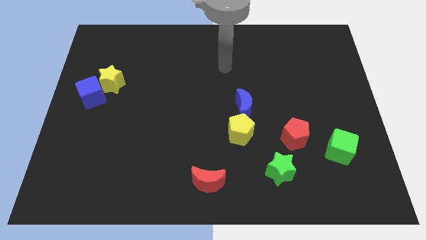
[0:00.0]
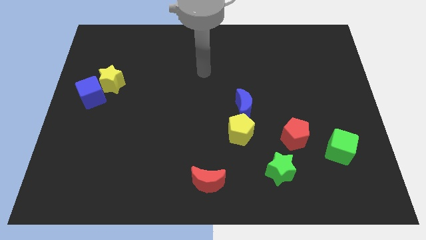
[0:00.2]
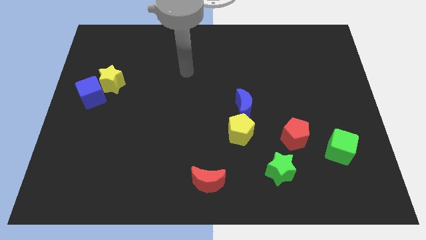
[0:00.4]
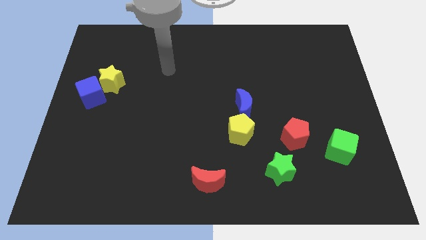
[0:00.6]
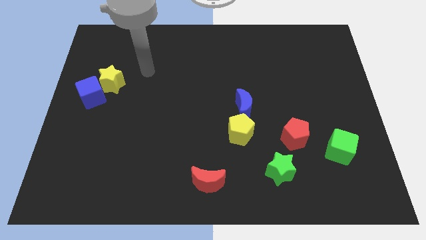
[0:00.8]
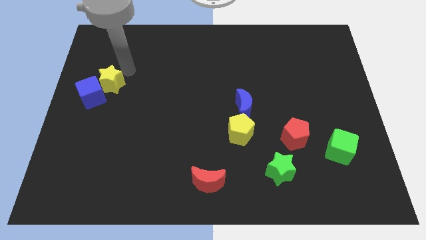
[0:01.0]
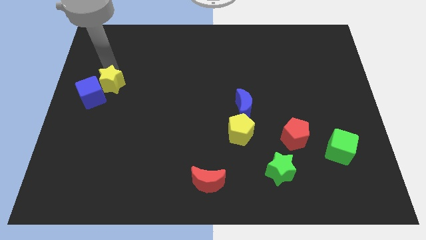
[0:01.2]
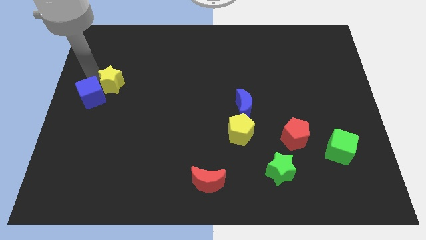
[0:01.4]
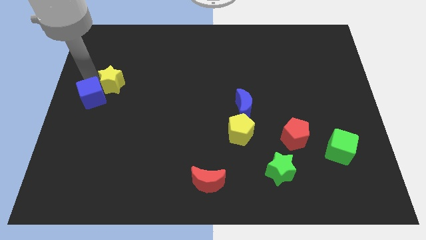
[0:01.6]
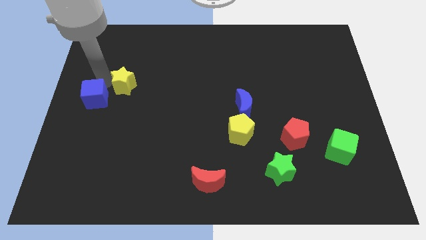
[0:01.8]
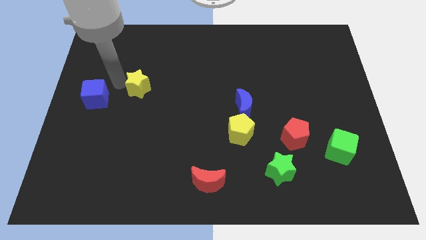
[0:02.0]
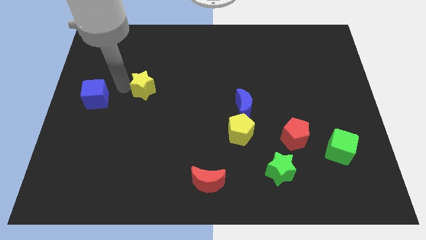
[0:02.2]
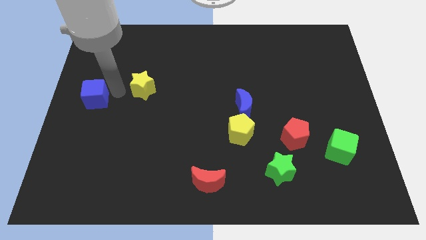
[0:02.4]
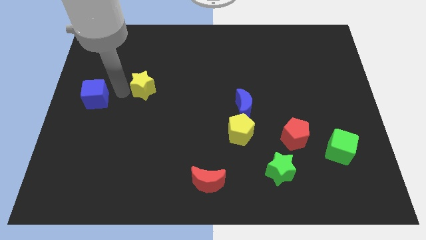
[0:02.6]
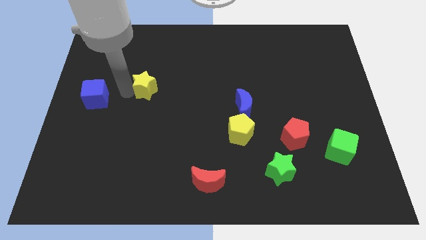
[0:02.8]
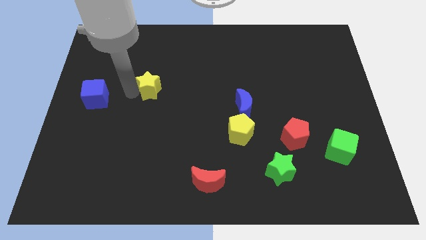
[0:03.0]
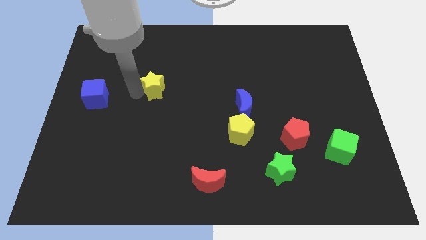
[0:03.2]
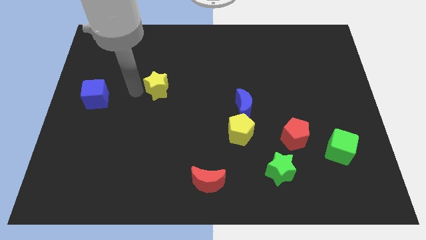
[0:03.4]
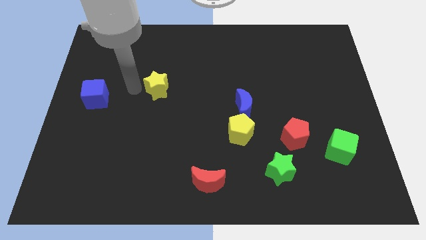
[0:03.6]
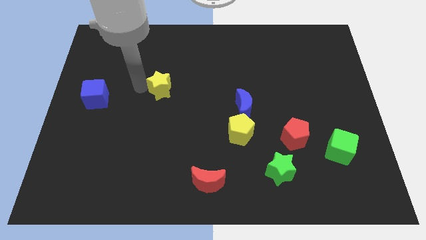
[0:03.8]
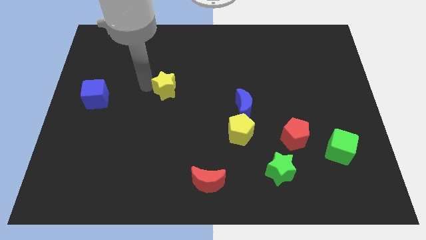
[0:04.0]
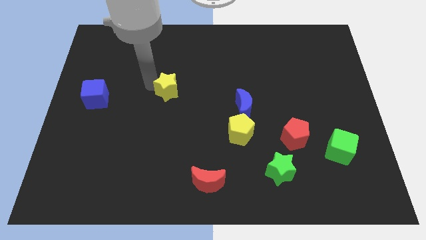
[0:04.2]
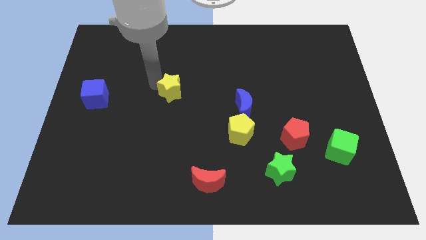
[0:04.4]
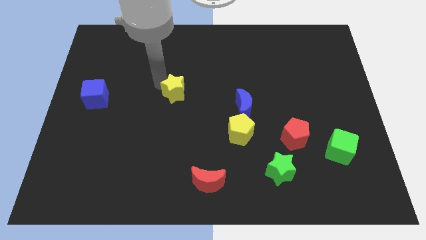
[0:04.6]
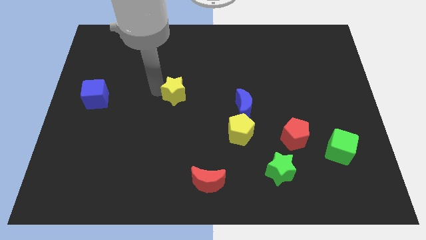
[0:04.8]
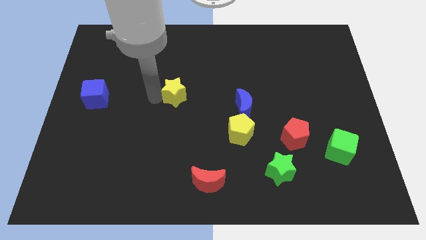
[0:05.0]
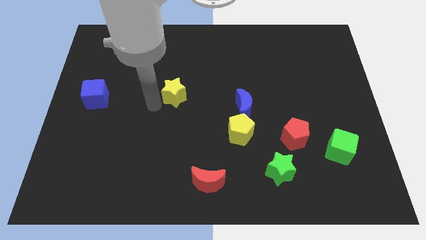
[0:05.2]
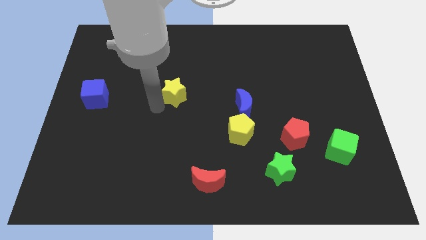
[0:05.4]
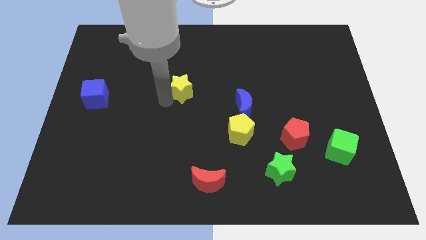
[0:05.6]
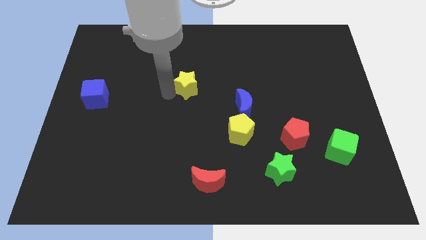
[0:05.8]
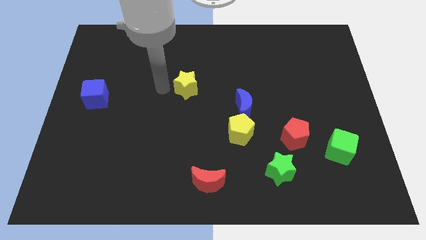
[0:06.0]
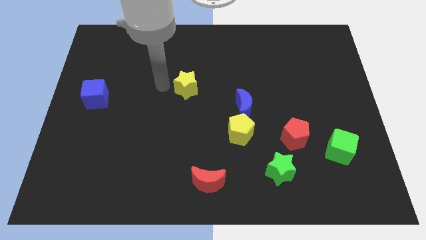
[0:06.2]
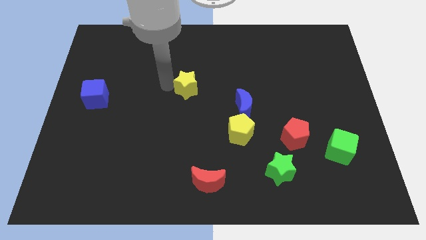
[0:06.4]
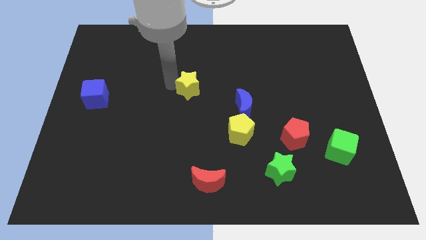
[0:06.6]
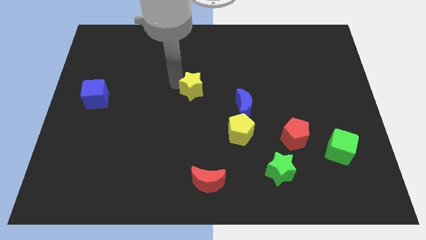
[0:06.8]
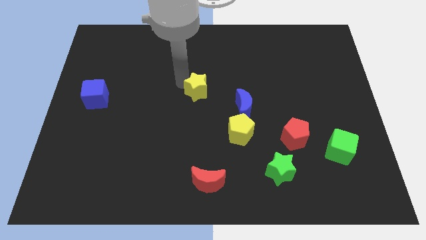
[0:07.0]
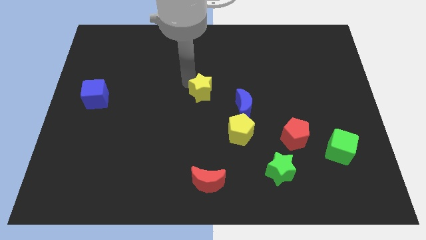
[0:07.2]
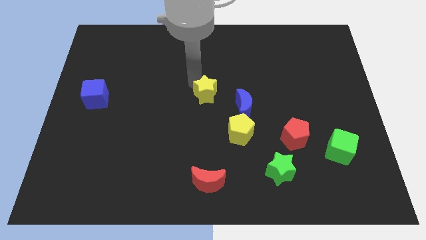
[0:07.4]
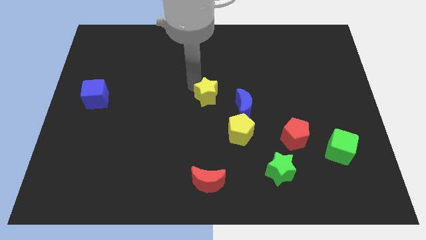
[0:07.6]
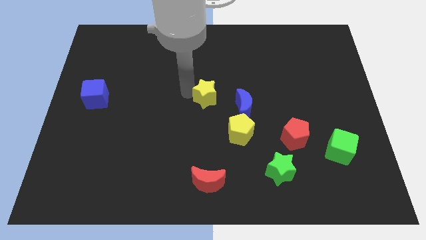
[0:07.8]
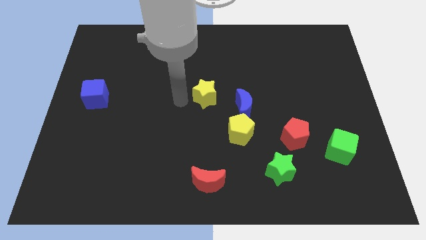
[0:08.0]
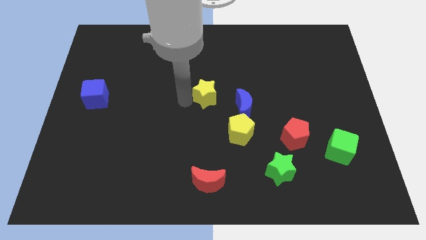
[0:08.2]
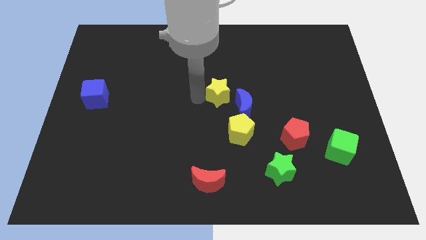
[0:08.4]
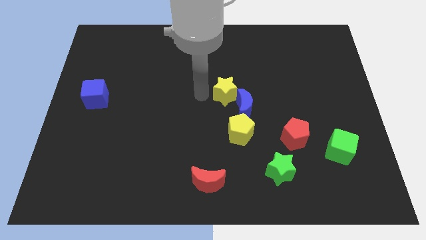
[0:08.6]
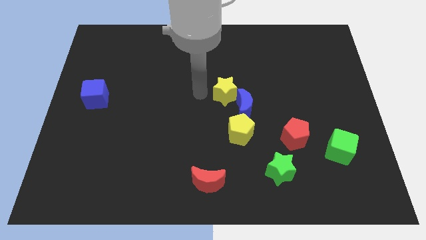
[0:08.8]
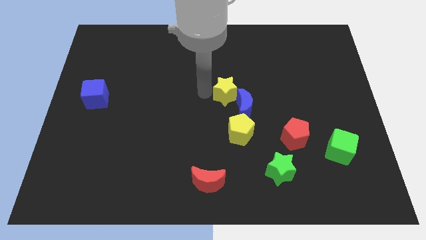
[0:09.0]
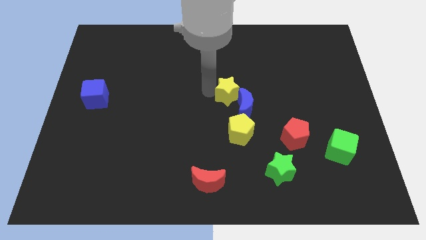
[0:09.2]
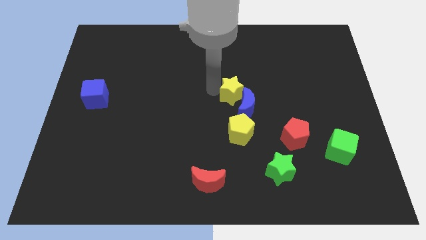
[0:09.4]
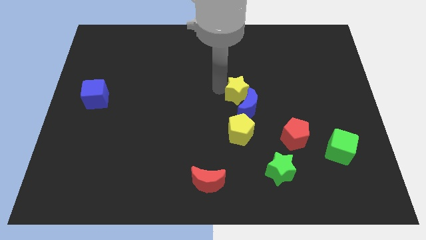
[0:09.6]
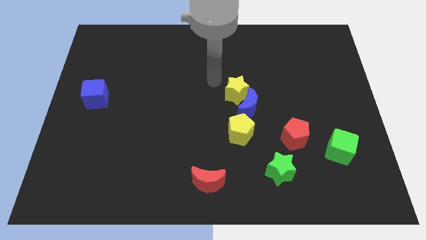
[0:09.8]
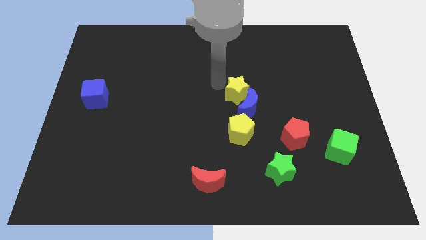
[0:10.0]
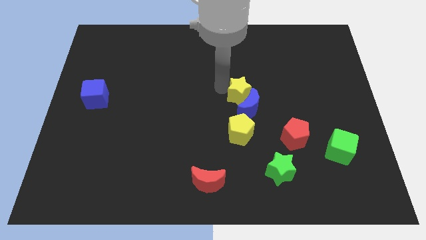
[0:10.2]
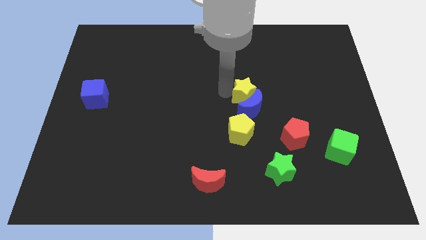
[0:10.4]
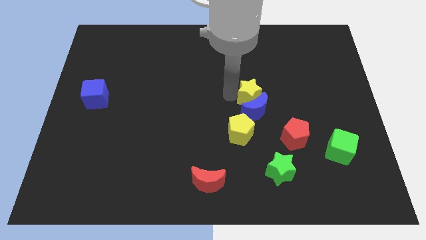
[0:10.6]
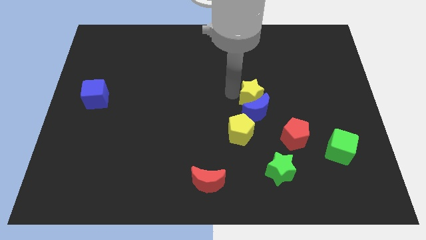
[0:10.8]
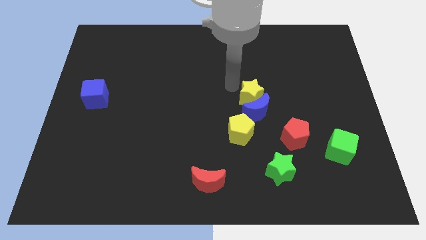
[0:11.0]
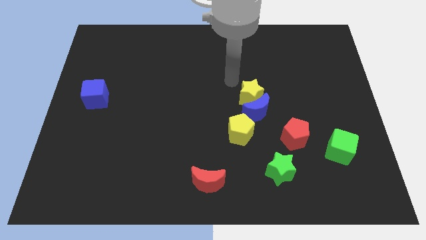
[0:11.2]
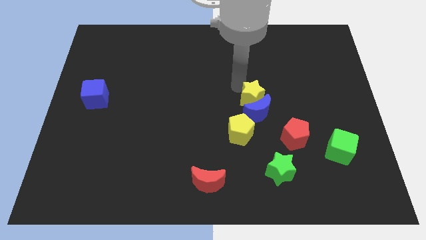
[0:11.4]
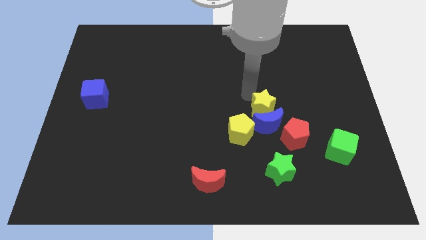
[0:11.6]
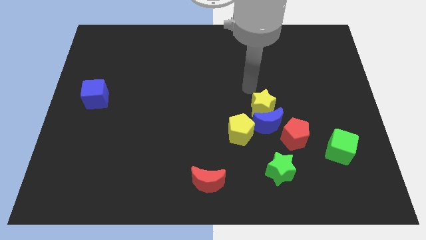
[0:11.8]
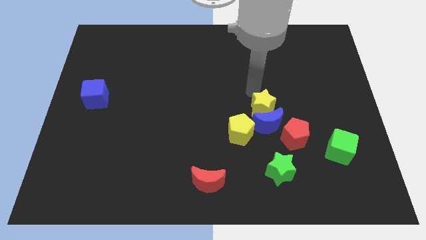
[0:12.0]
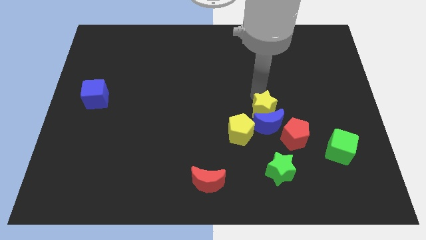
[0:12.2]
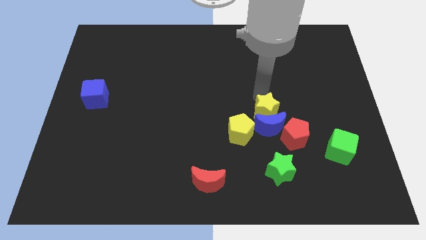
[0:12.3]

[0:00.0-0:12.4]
push the yellow star above the green star
